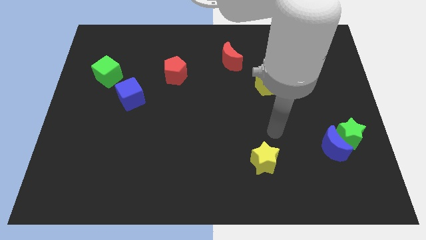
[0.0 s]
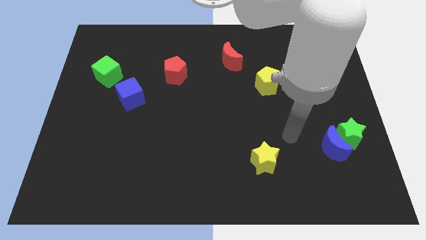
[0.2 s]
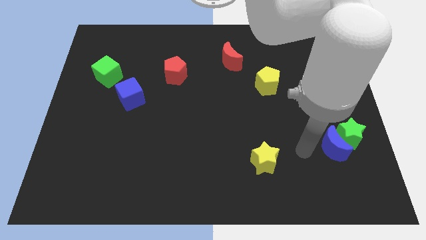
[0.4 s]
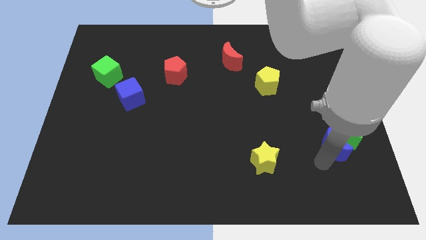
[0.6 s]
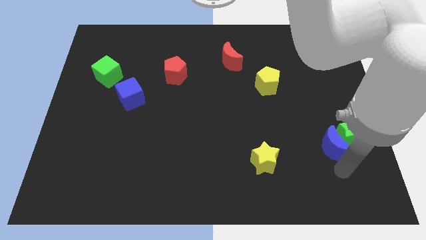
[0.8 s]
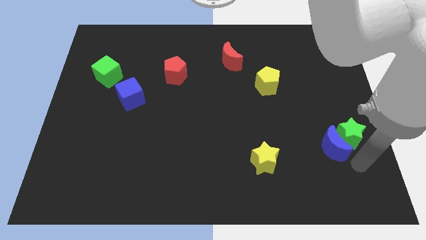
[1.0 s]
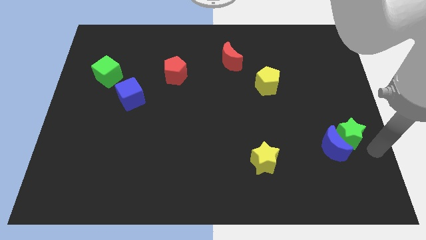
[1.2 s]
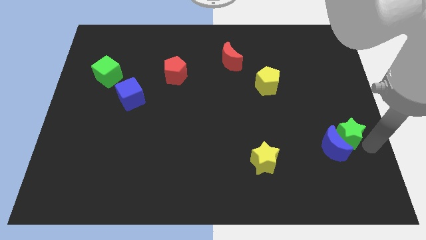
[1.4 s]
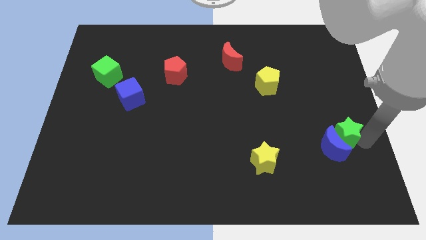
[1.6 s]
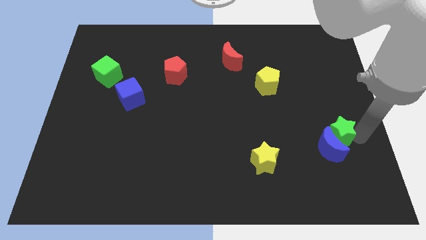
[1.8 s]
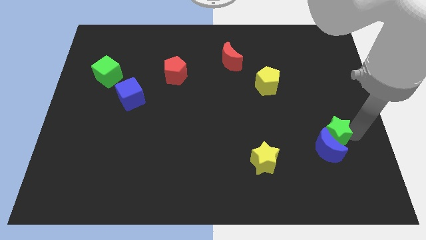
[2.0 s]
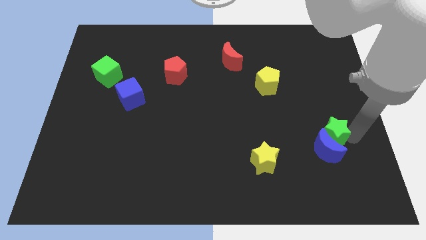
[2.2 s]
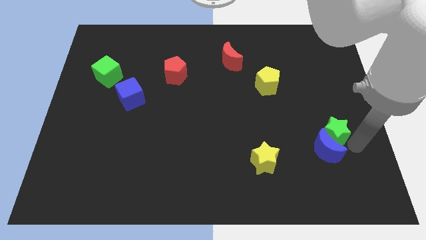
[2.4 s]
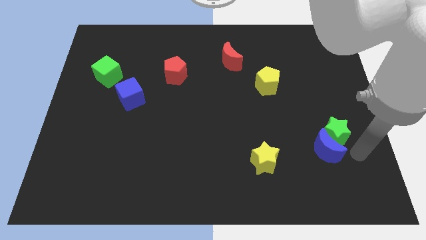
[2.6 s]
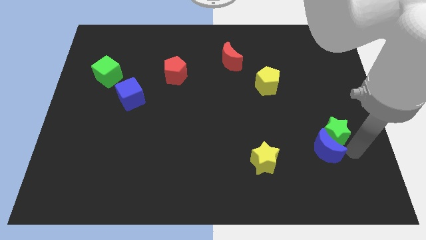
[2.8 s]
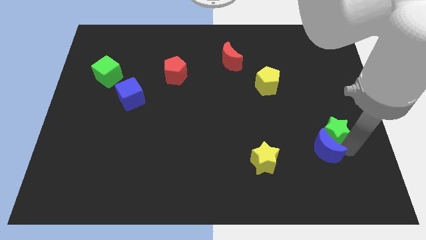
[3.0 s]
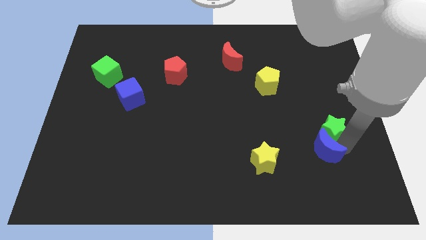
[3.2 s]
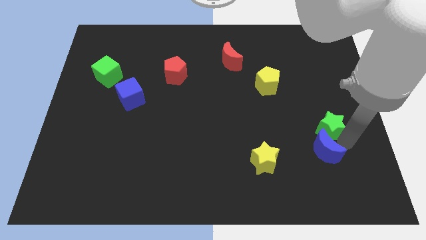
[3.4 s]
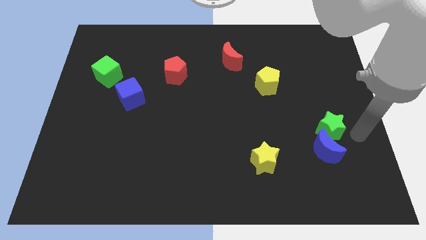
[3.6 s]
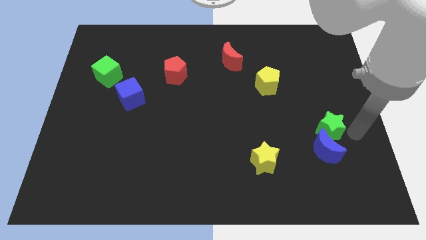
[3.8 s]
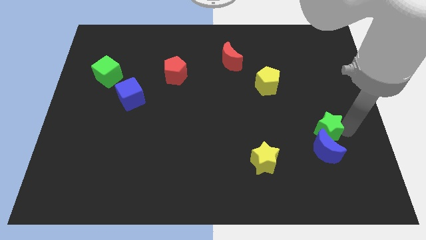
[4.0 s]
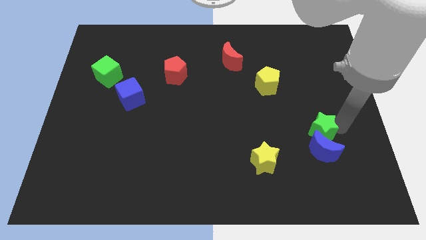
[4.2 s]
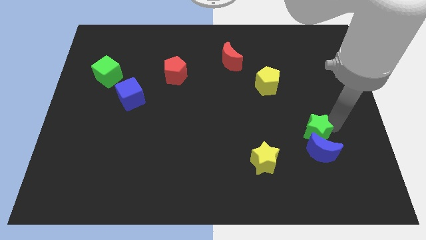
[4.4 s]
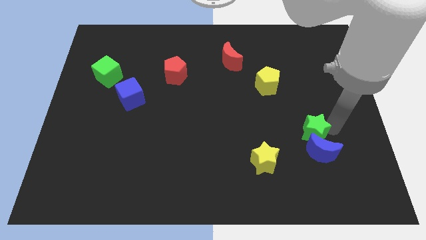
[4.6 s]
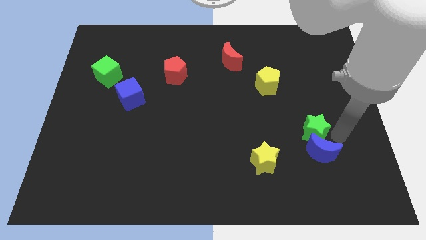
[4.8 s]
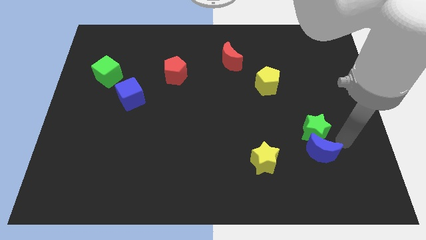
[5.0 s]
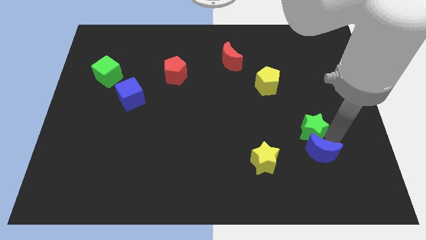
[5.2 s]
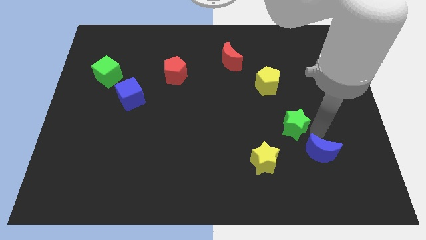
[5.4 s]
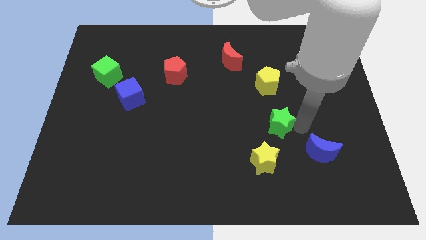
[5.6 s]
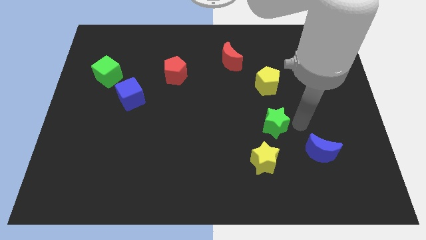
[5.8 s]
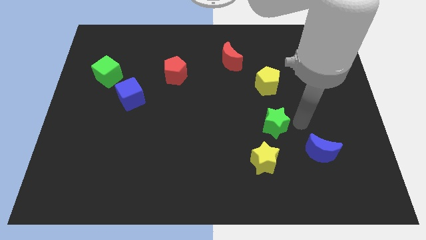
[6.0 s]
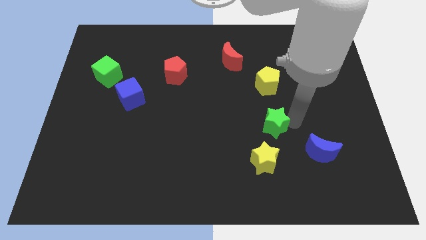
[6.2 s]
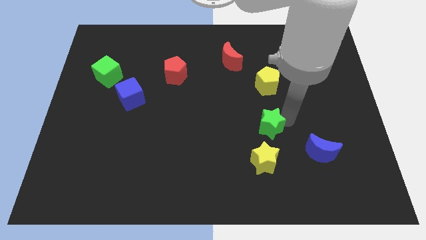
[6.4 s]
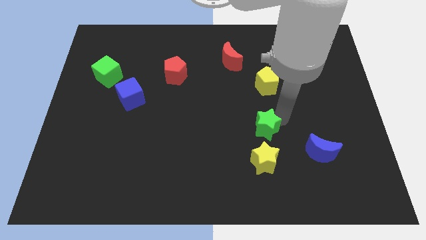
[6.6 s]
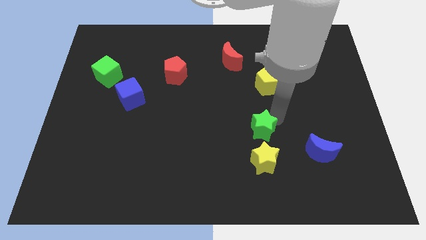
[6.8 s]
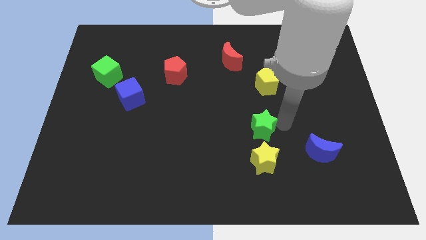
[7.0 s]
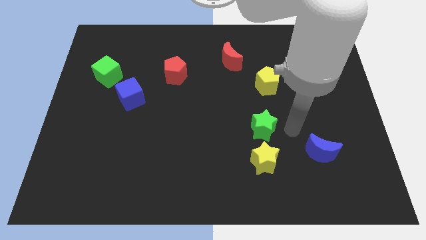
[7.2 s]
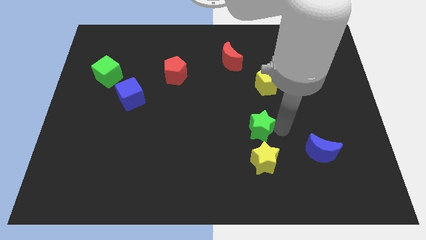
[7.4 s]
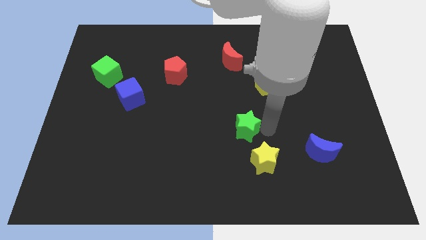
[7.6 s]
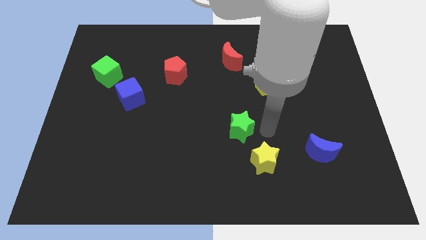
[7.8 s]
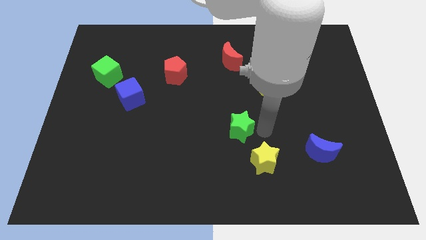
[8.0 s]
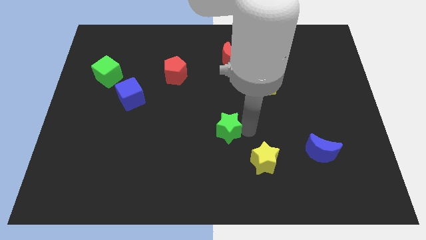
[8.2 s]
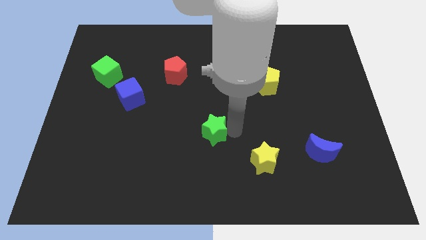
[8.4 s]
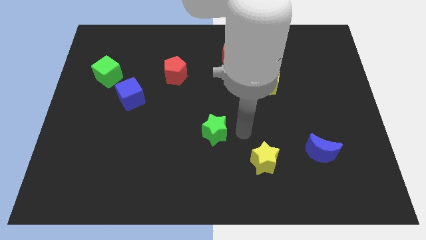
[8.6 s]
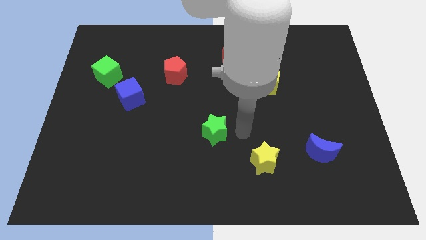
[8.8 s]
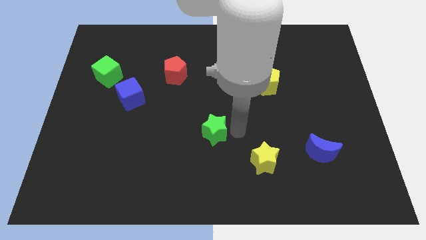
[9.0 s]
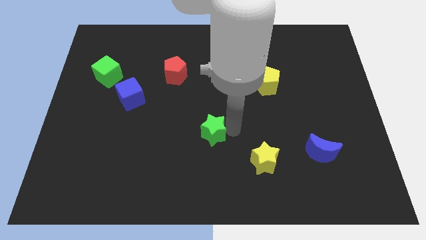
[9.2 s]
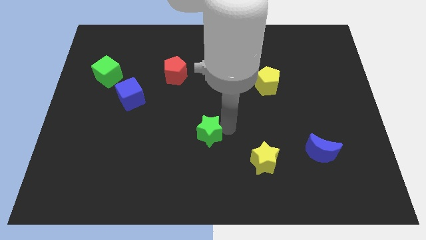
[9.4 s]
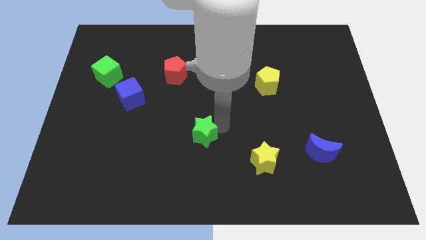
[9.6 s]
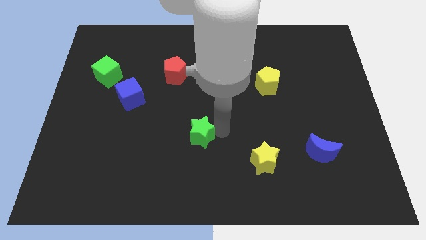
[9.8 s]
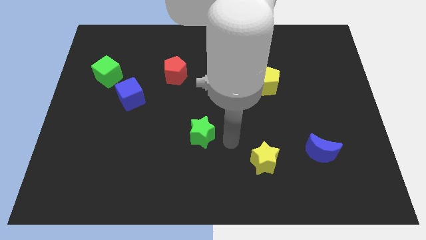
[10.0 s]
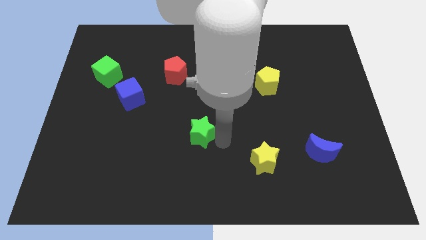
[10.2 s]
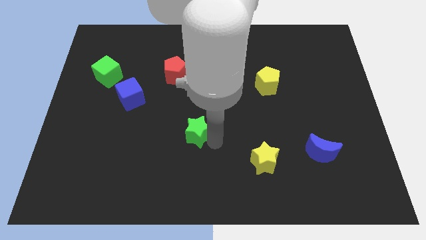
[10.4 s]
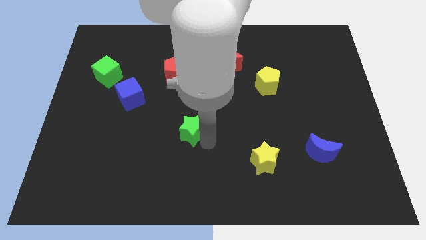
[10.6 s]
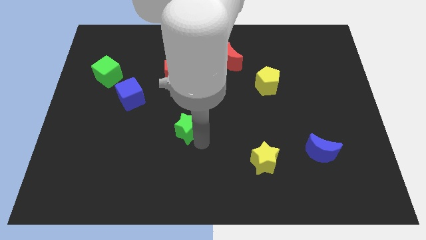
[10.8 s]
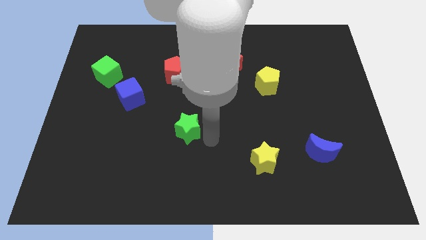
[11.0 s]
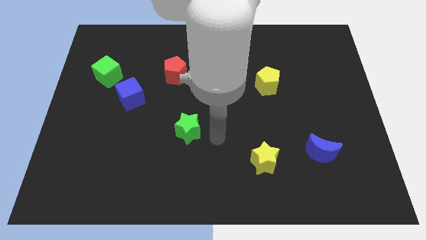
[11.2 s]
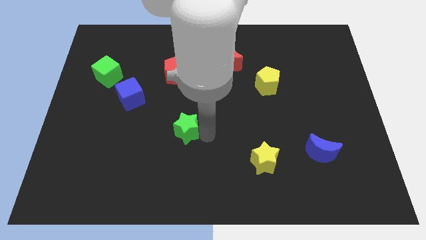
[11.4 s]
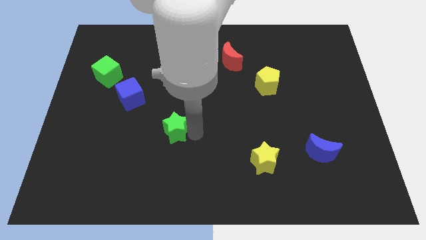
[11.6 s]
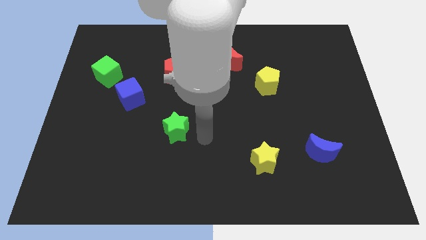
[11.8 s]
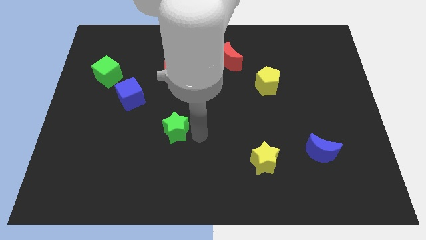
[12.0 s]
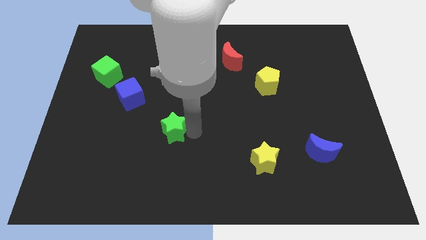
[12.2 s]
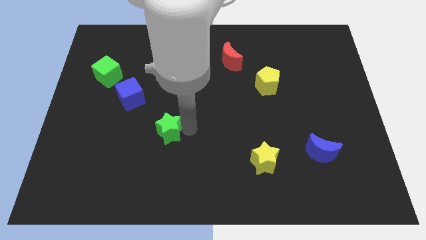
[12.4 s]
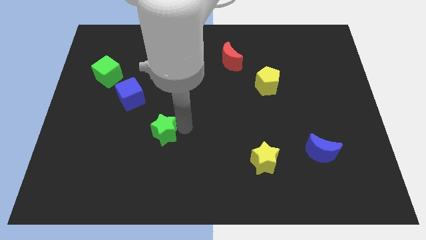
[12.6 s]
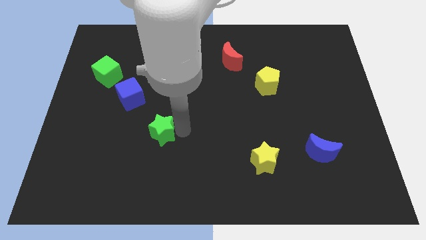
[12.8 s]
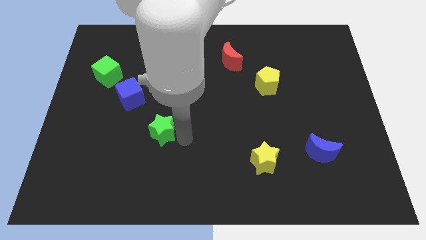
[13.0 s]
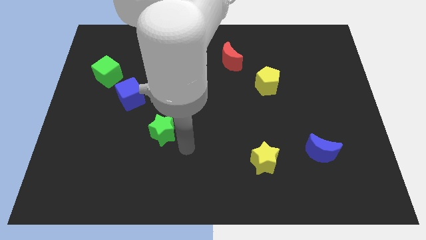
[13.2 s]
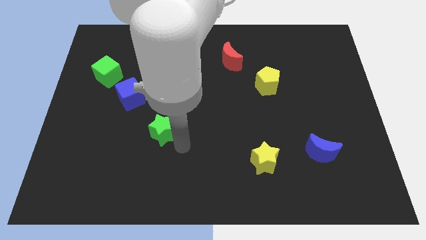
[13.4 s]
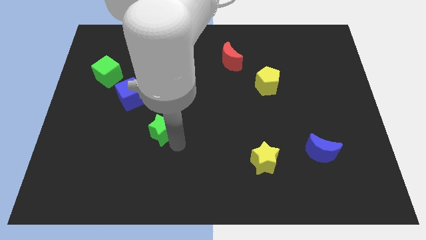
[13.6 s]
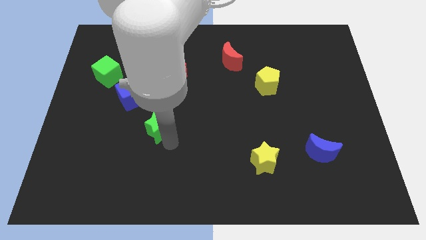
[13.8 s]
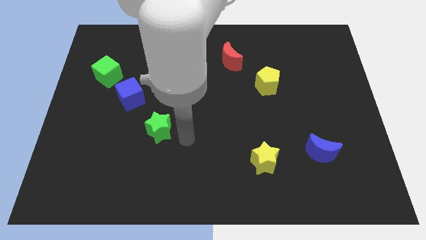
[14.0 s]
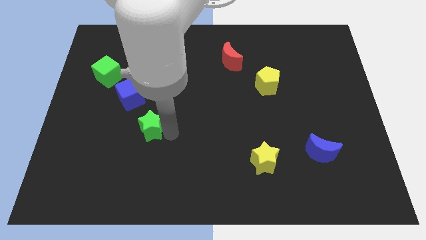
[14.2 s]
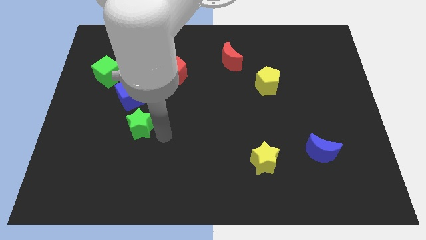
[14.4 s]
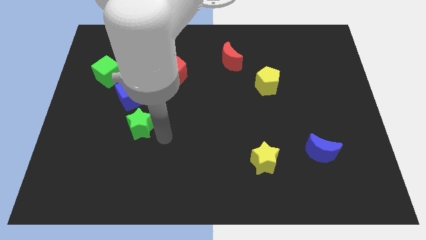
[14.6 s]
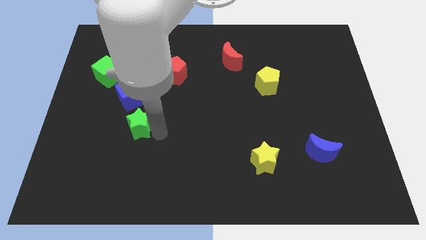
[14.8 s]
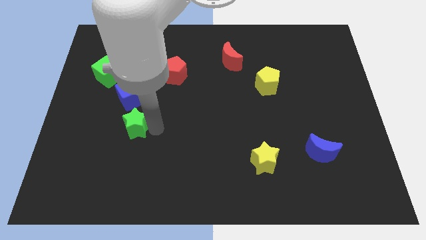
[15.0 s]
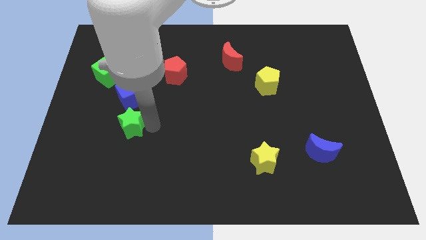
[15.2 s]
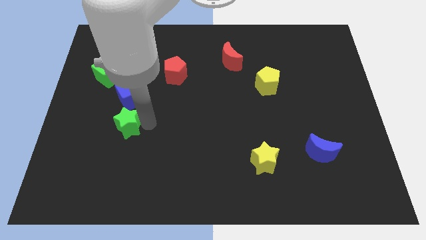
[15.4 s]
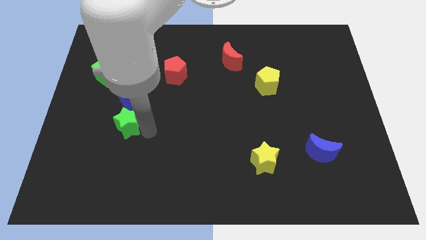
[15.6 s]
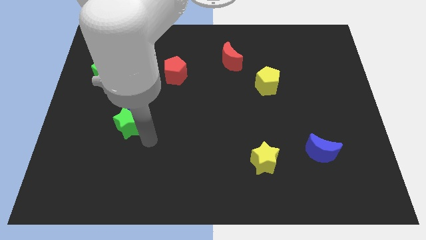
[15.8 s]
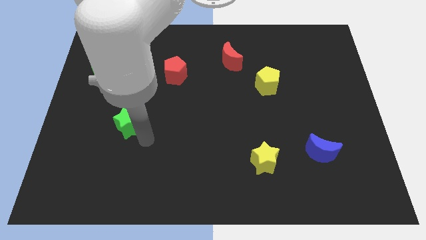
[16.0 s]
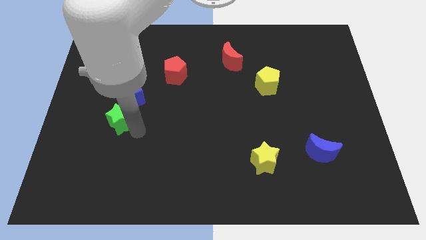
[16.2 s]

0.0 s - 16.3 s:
move the green star to the bottom left of the blue cube
